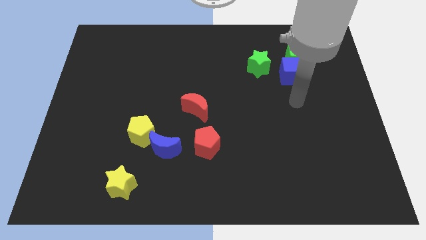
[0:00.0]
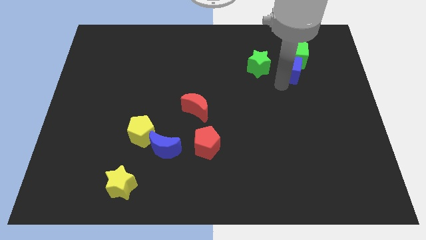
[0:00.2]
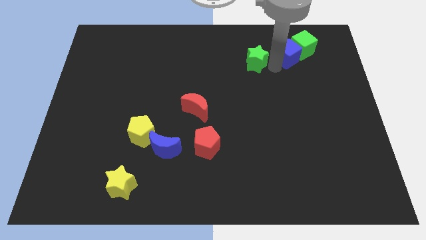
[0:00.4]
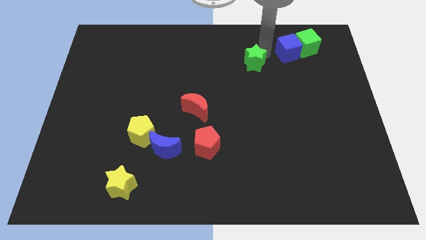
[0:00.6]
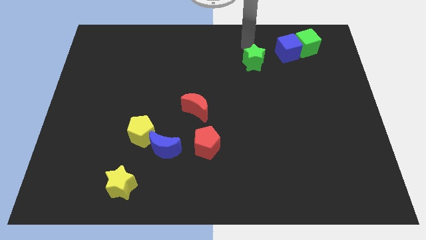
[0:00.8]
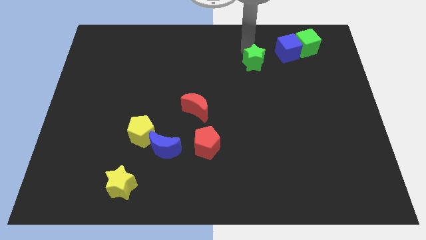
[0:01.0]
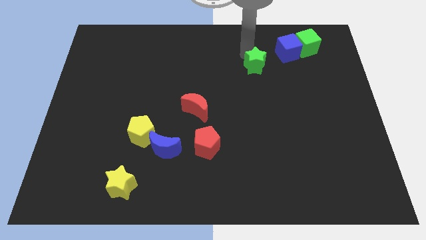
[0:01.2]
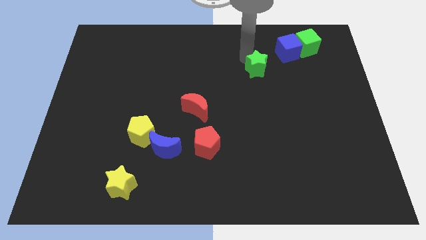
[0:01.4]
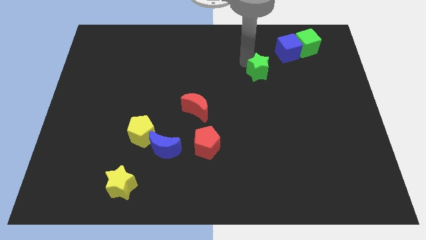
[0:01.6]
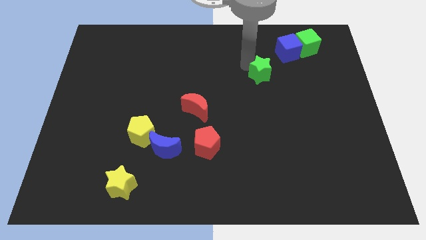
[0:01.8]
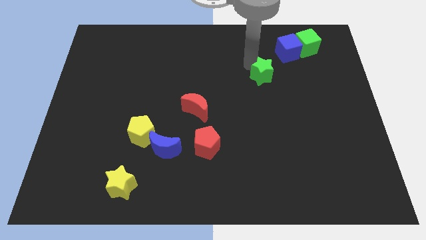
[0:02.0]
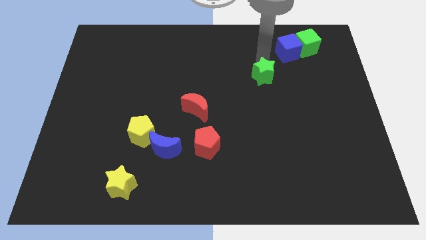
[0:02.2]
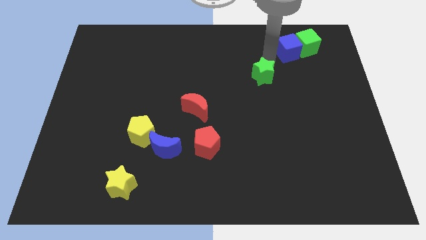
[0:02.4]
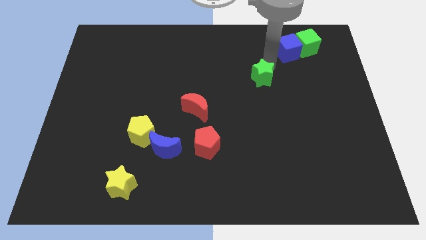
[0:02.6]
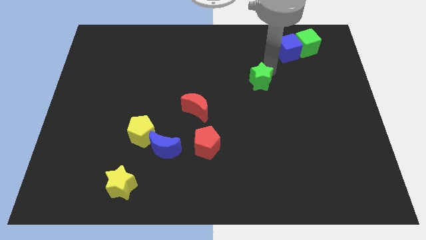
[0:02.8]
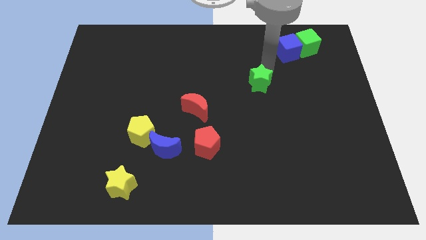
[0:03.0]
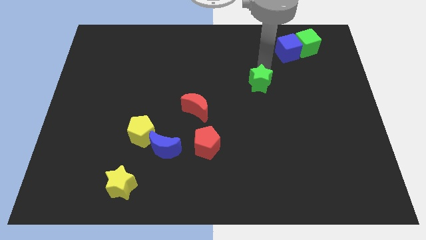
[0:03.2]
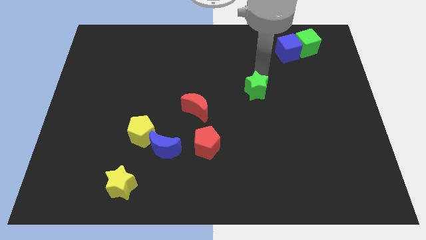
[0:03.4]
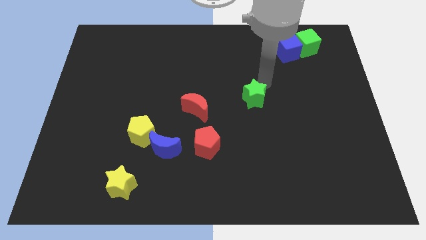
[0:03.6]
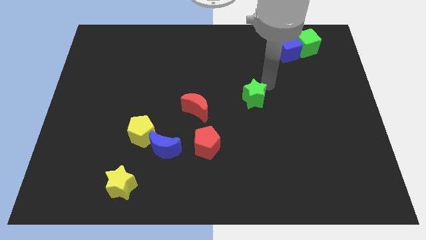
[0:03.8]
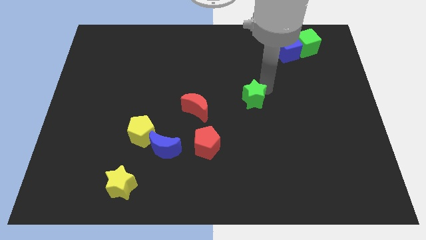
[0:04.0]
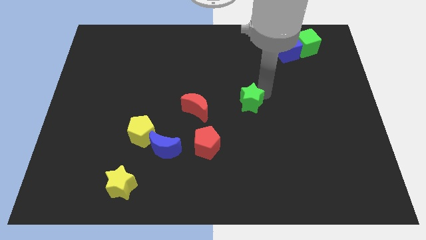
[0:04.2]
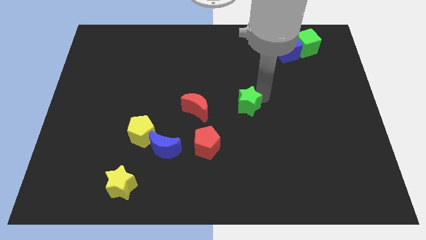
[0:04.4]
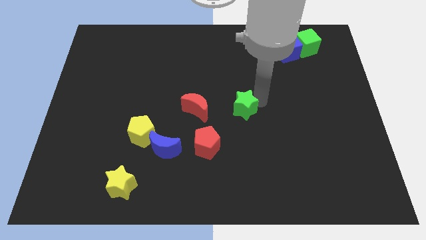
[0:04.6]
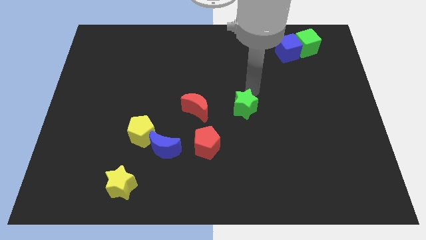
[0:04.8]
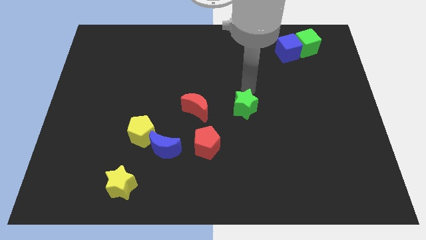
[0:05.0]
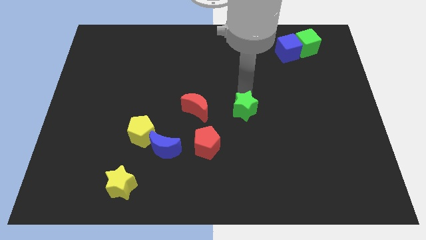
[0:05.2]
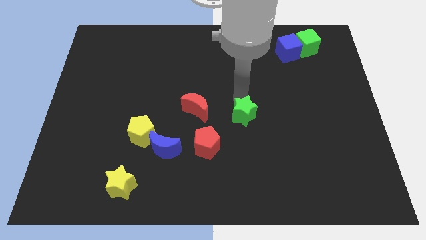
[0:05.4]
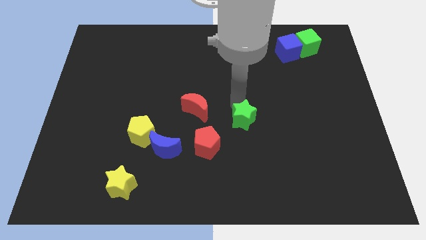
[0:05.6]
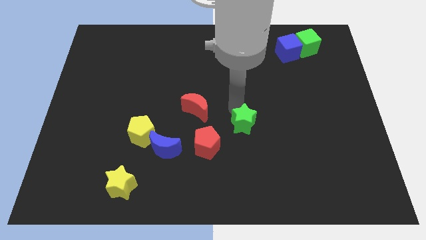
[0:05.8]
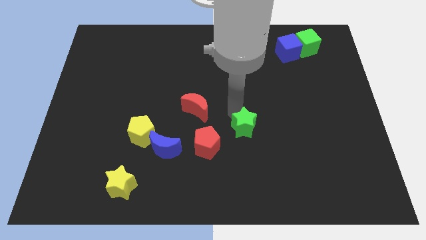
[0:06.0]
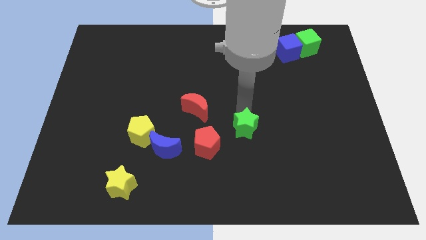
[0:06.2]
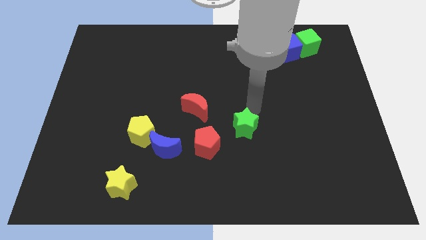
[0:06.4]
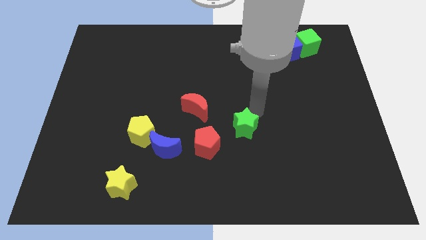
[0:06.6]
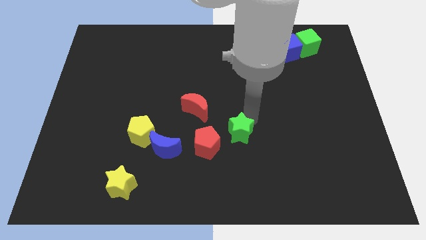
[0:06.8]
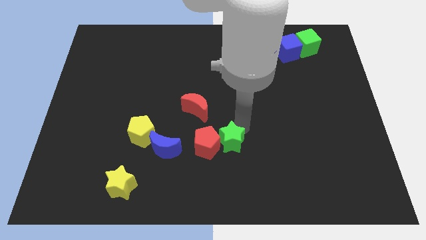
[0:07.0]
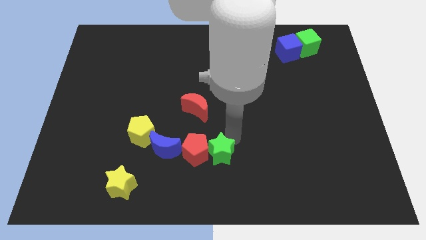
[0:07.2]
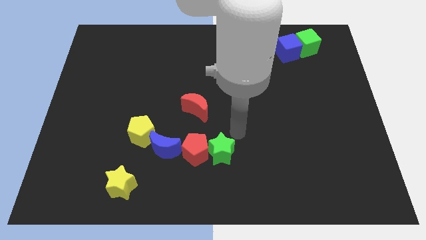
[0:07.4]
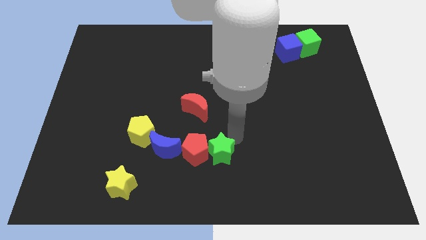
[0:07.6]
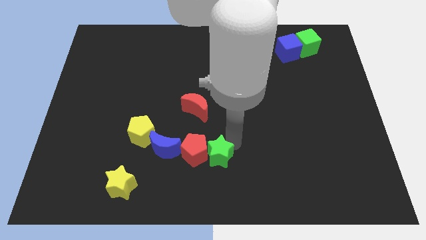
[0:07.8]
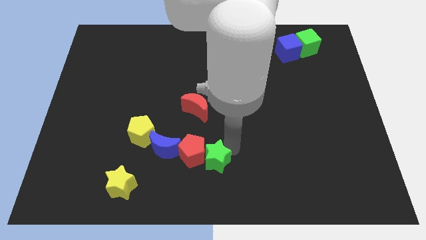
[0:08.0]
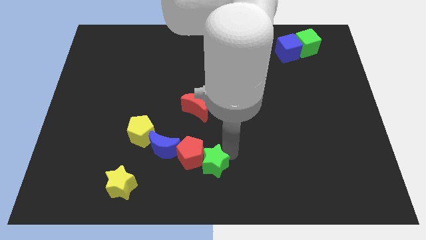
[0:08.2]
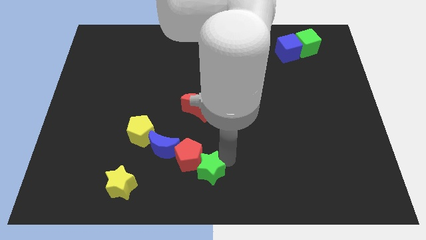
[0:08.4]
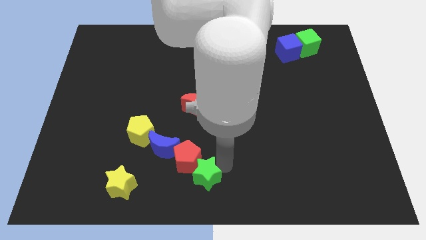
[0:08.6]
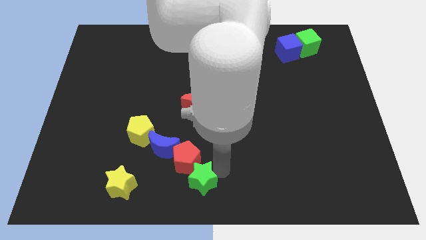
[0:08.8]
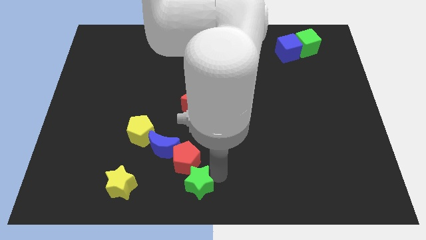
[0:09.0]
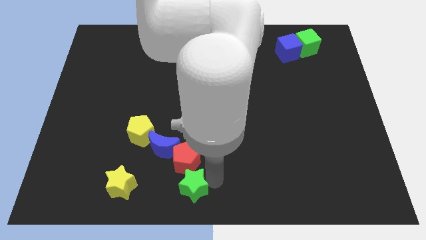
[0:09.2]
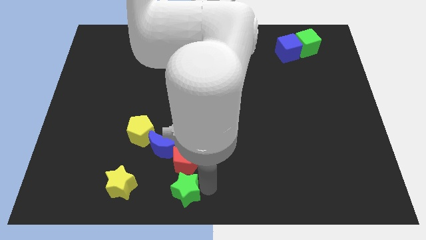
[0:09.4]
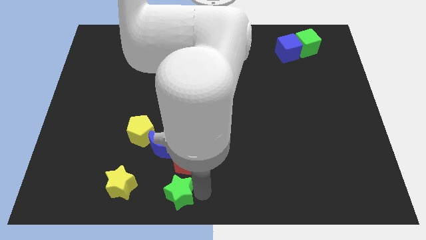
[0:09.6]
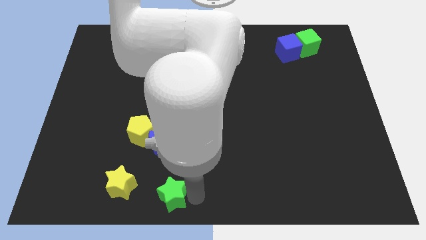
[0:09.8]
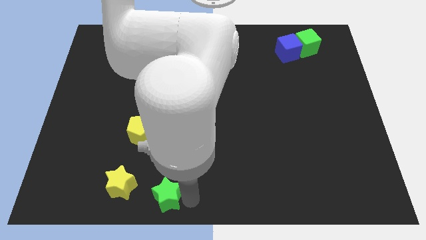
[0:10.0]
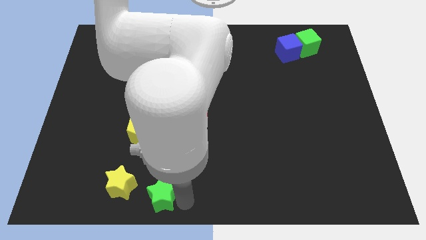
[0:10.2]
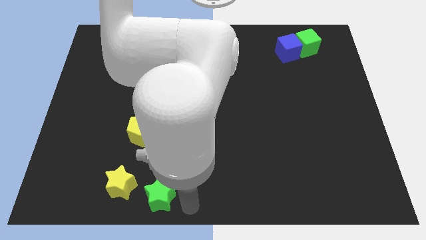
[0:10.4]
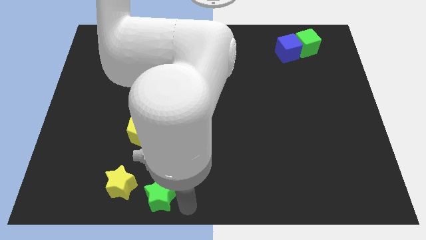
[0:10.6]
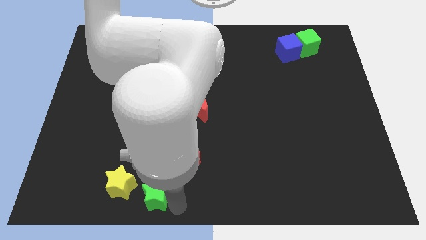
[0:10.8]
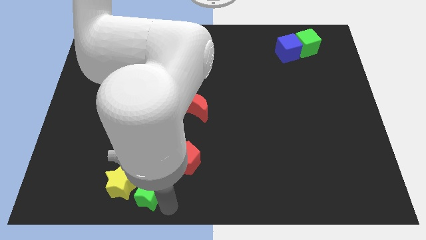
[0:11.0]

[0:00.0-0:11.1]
slide the green star towards the yellow star

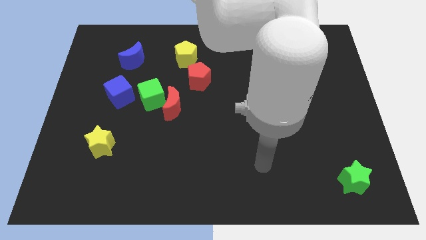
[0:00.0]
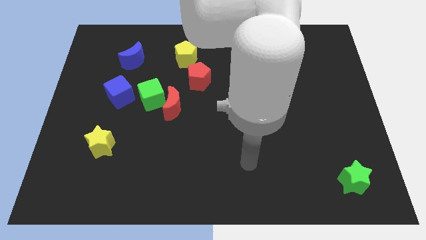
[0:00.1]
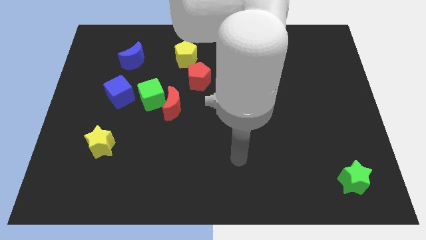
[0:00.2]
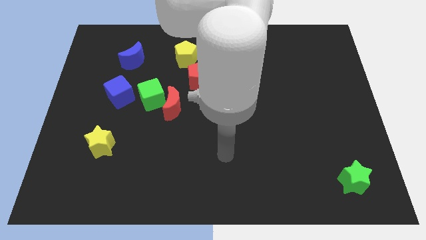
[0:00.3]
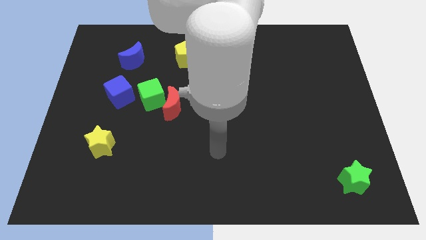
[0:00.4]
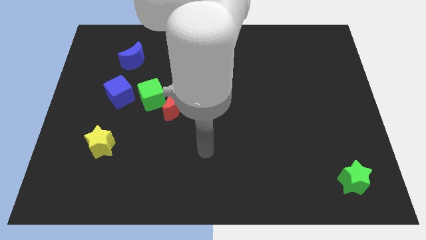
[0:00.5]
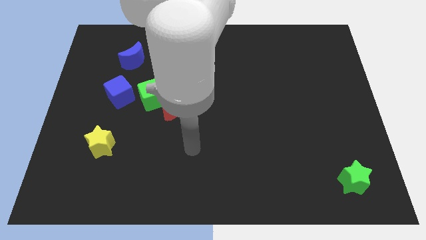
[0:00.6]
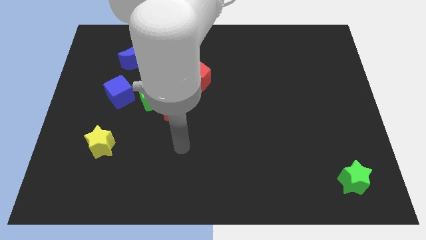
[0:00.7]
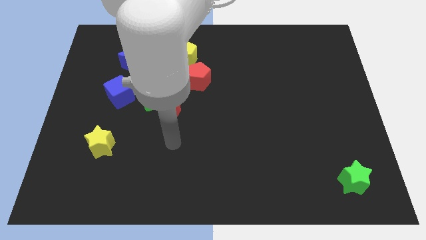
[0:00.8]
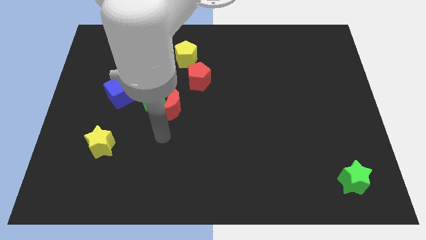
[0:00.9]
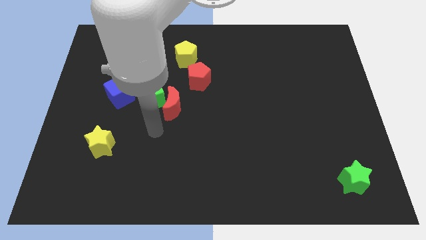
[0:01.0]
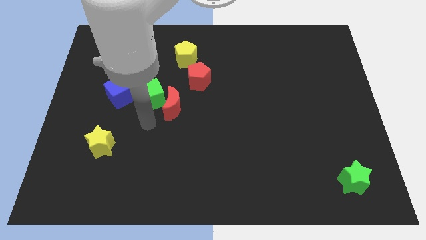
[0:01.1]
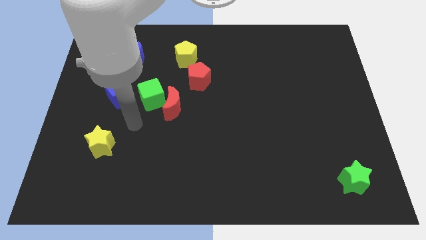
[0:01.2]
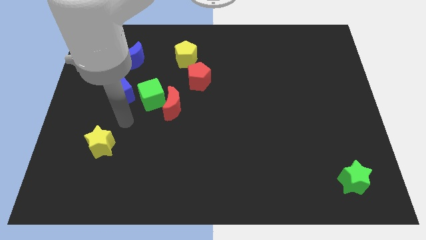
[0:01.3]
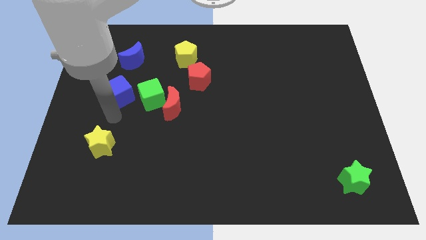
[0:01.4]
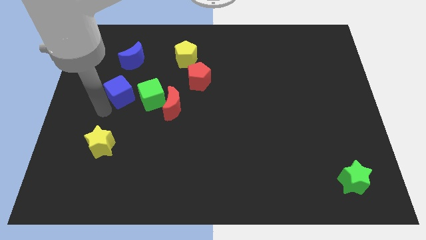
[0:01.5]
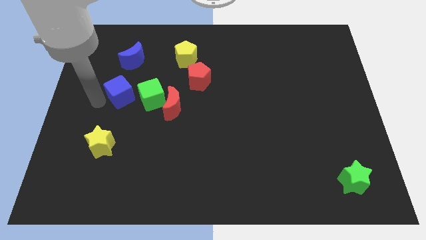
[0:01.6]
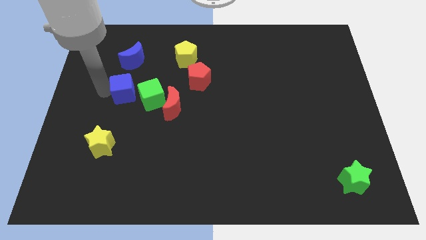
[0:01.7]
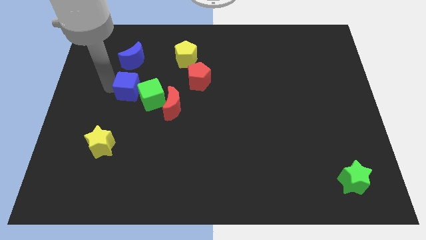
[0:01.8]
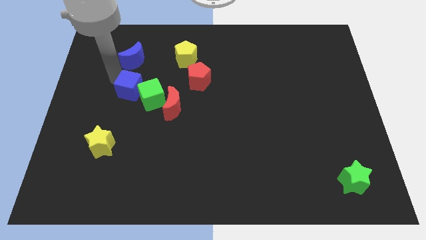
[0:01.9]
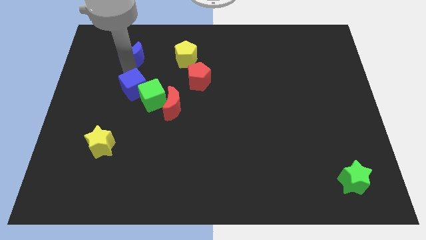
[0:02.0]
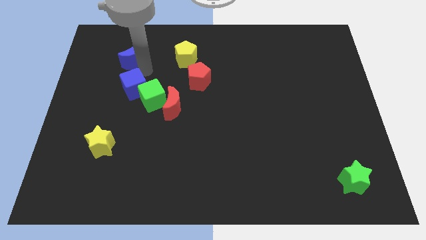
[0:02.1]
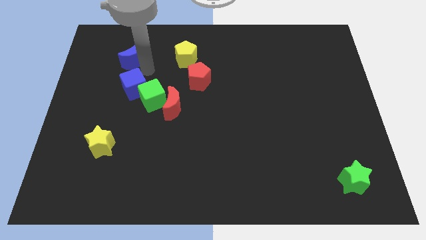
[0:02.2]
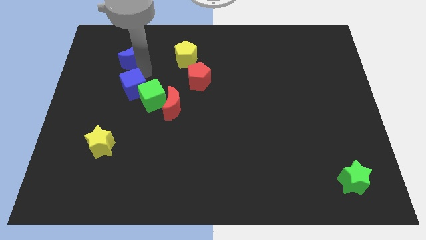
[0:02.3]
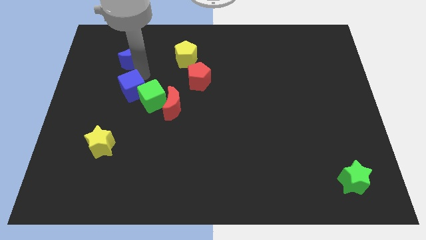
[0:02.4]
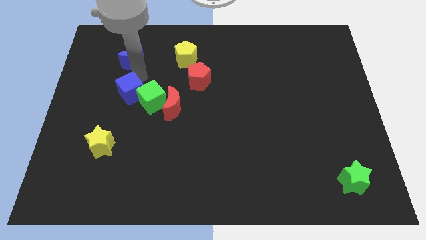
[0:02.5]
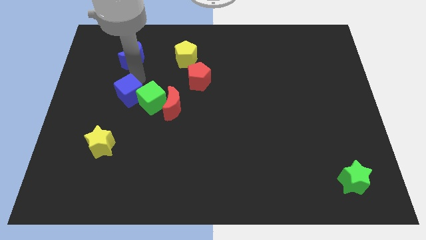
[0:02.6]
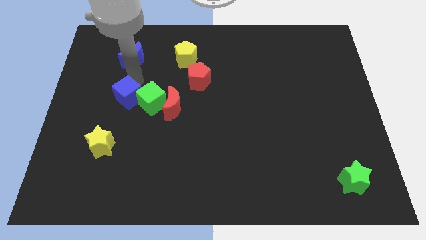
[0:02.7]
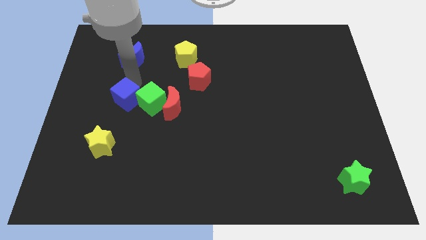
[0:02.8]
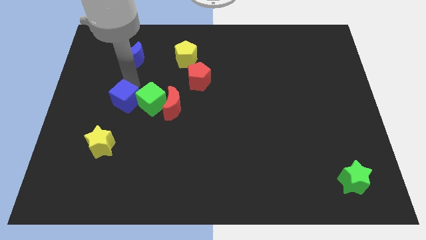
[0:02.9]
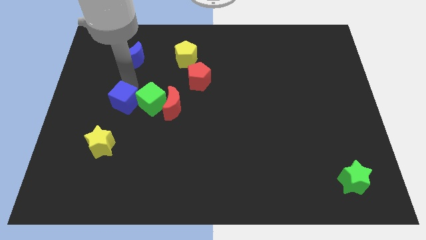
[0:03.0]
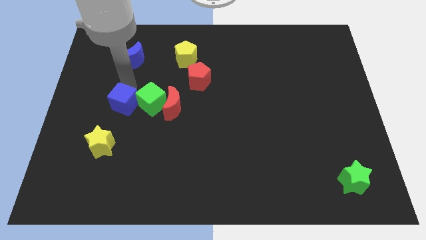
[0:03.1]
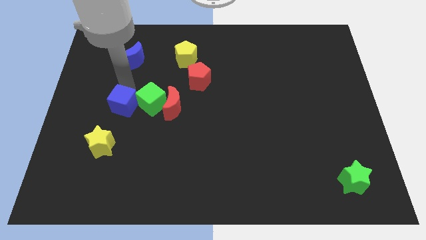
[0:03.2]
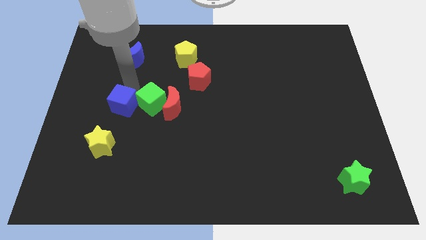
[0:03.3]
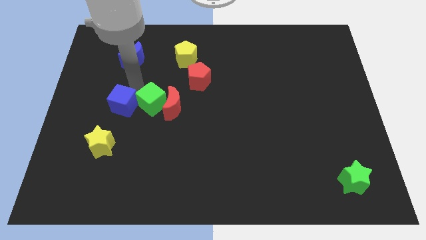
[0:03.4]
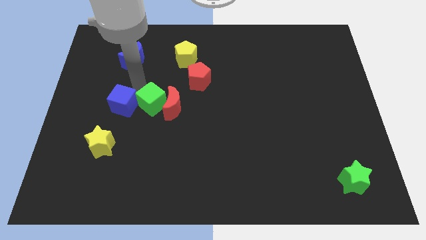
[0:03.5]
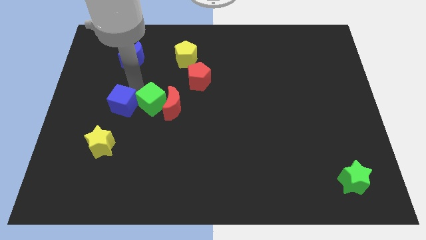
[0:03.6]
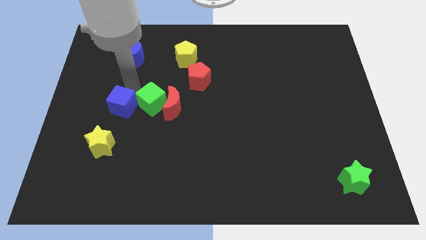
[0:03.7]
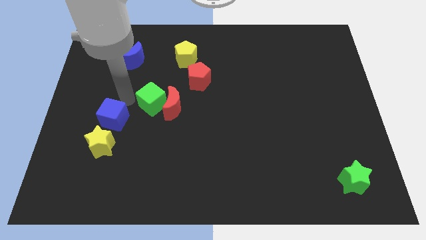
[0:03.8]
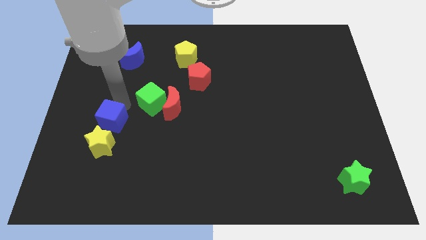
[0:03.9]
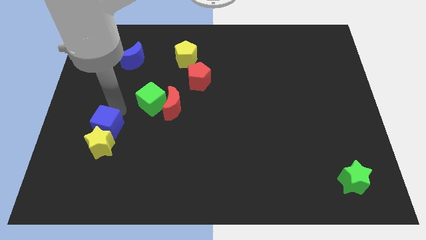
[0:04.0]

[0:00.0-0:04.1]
put the blue cube close to the yellow star
